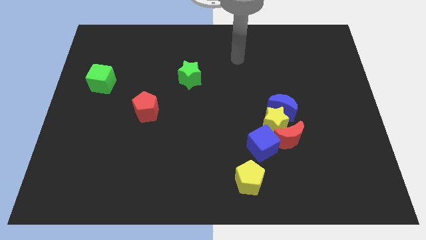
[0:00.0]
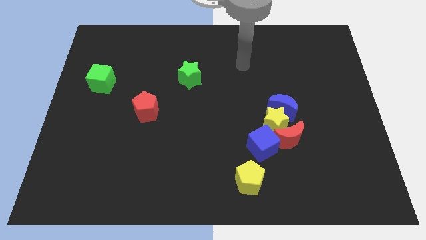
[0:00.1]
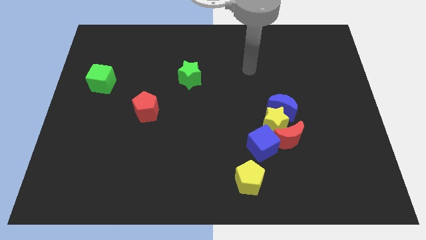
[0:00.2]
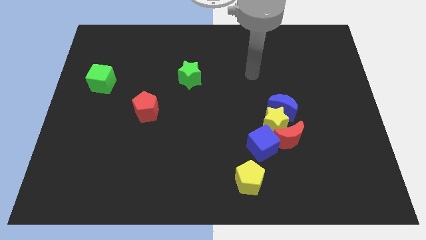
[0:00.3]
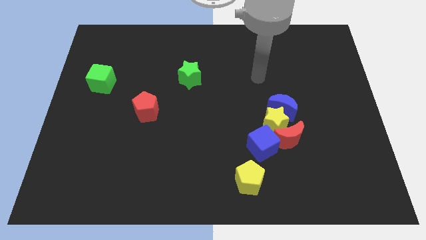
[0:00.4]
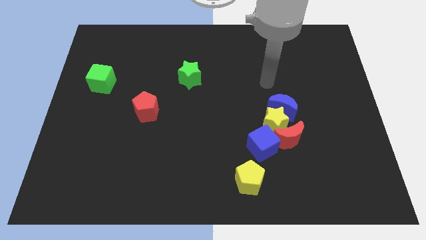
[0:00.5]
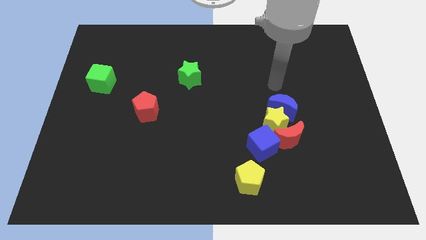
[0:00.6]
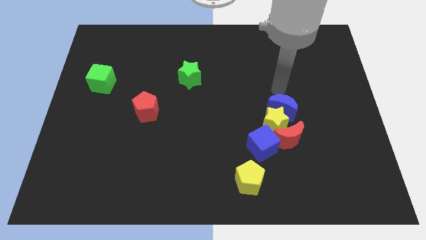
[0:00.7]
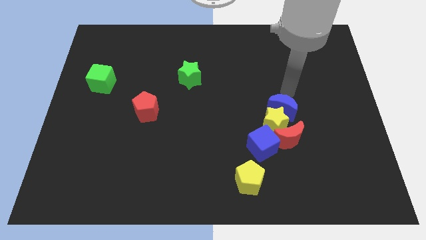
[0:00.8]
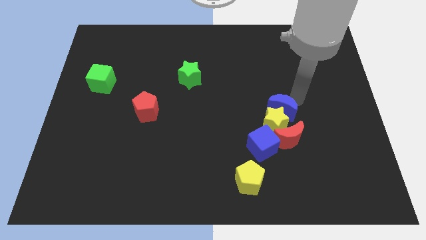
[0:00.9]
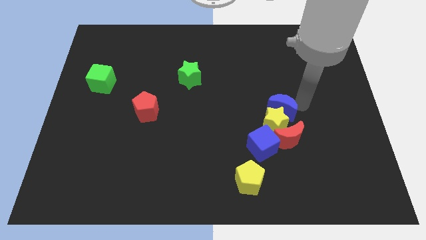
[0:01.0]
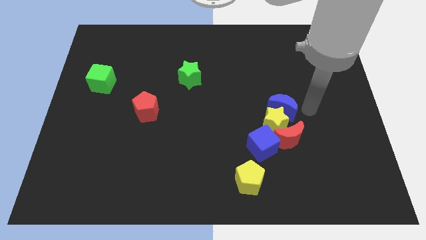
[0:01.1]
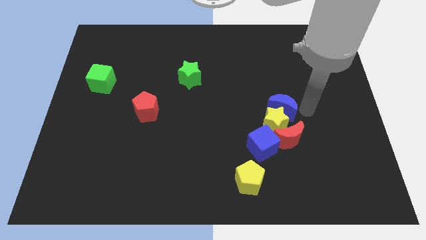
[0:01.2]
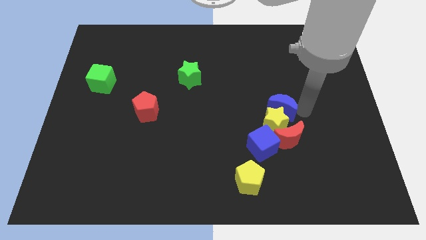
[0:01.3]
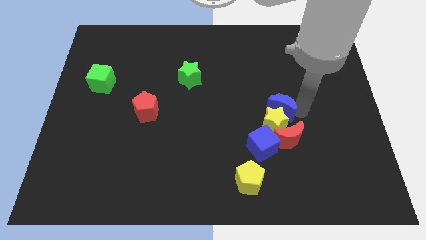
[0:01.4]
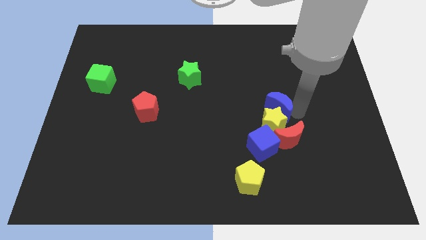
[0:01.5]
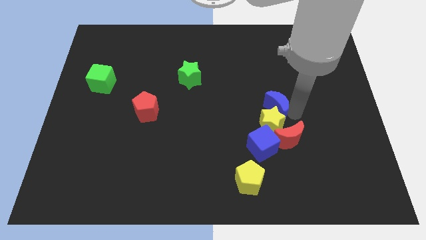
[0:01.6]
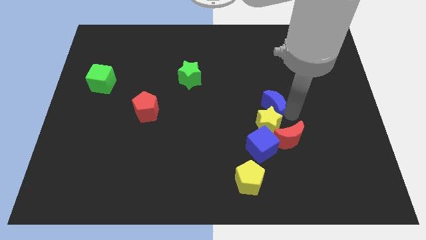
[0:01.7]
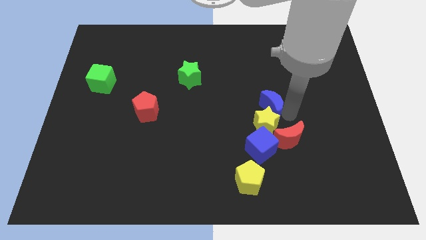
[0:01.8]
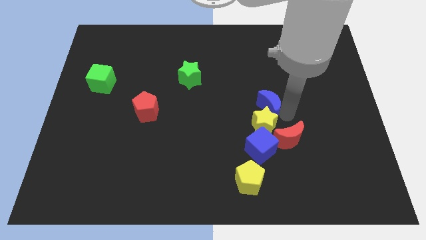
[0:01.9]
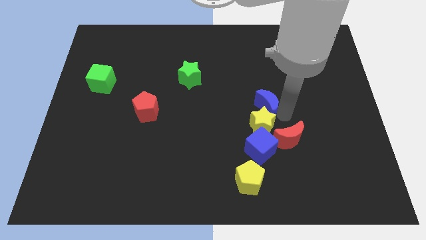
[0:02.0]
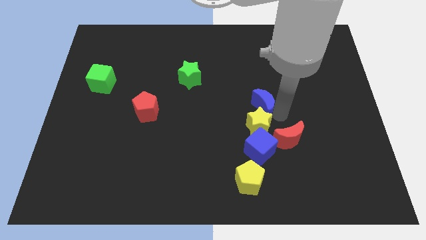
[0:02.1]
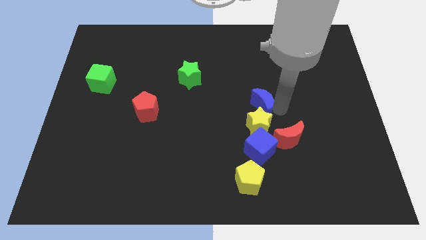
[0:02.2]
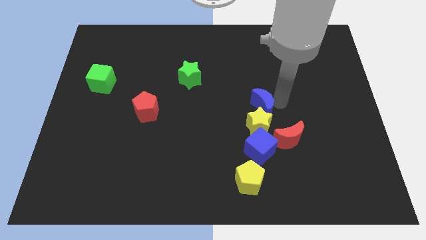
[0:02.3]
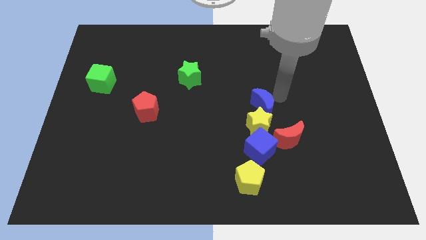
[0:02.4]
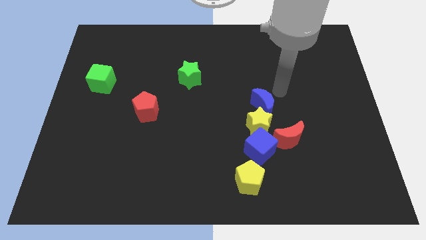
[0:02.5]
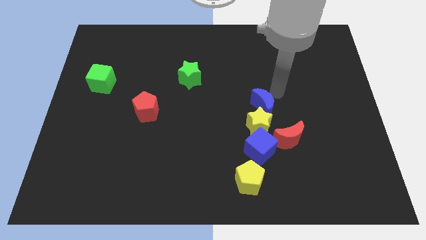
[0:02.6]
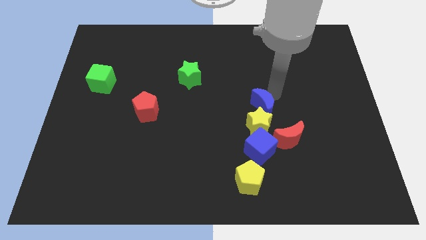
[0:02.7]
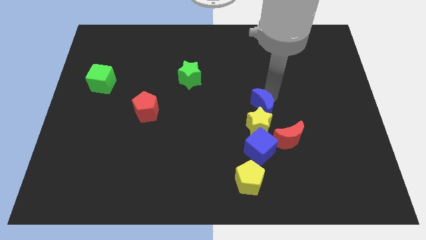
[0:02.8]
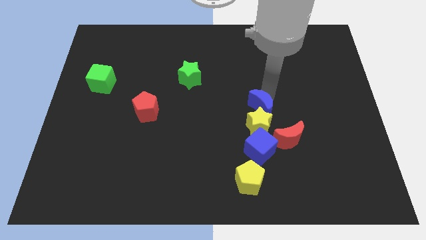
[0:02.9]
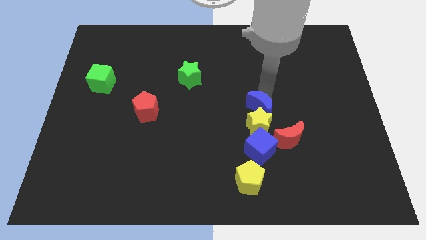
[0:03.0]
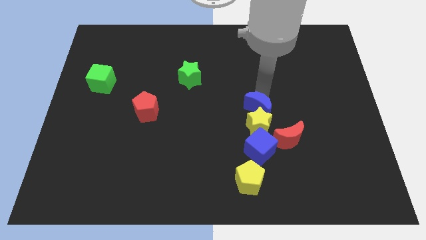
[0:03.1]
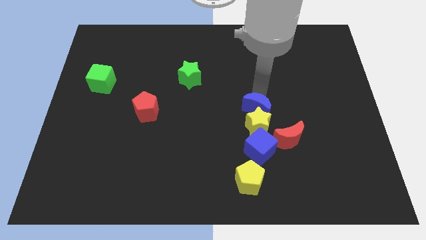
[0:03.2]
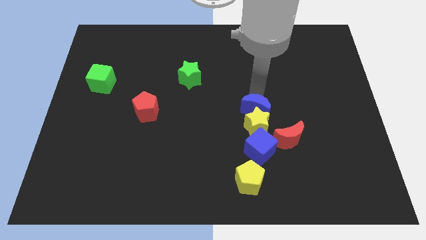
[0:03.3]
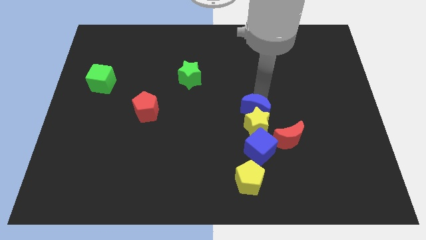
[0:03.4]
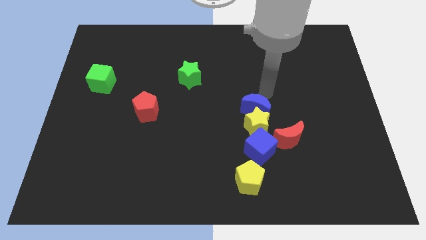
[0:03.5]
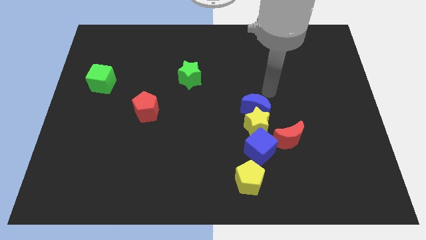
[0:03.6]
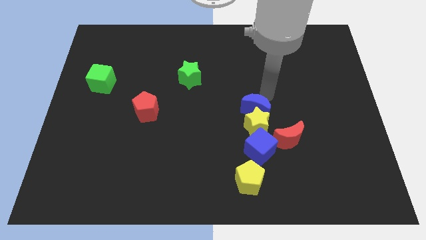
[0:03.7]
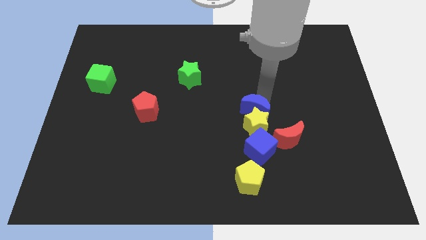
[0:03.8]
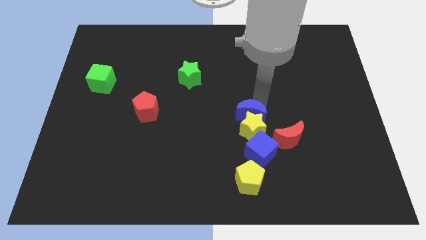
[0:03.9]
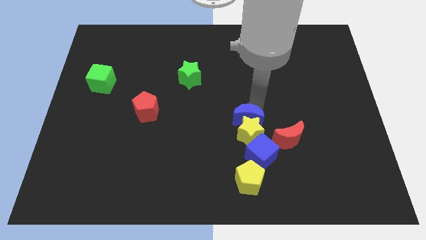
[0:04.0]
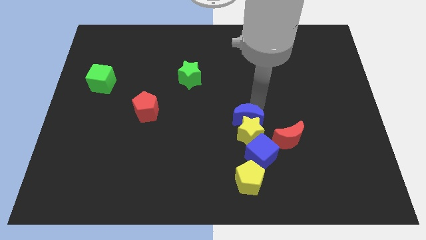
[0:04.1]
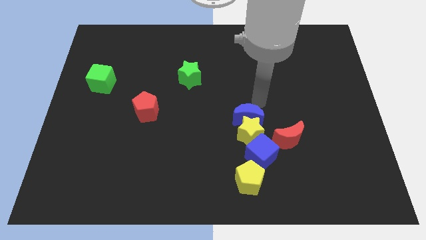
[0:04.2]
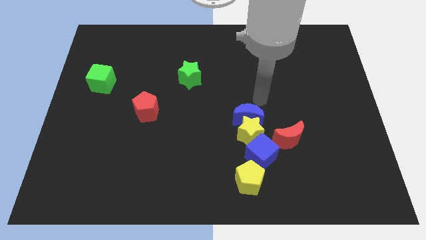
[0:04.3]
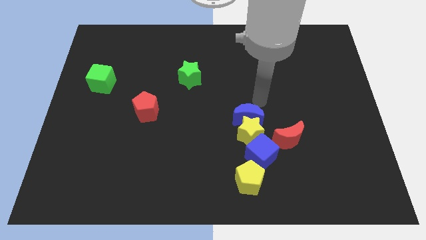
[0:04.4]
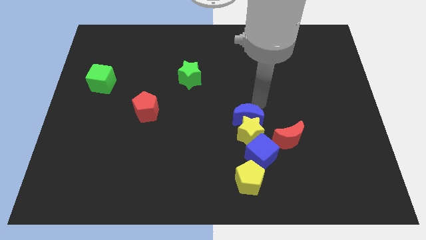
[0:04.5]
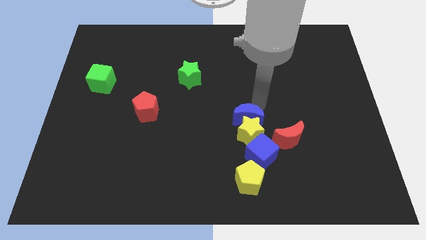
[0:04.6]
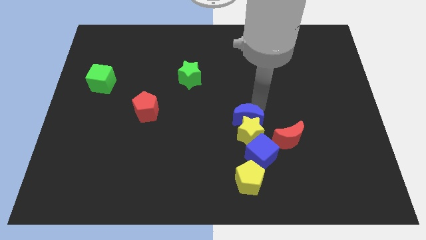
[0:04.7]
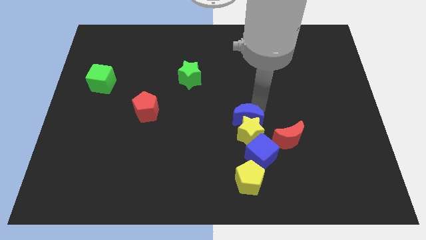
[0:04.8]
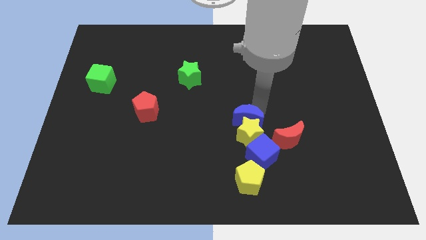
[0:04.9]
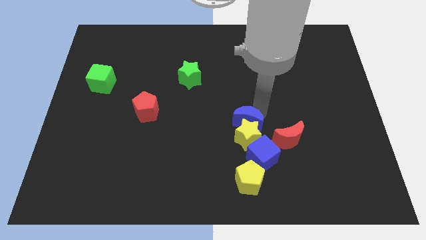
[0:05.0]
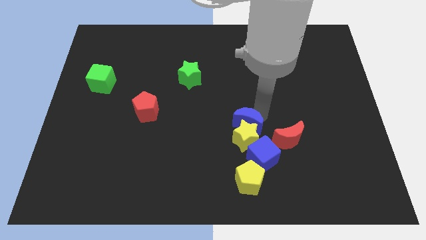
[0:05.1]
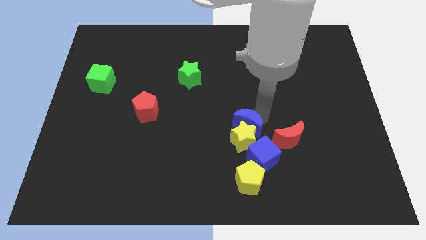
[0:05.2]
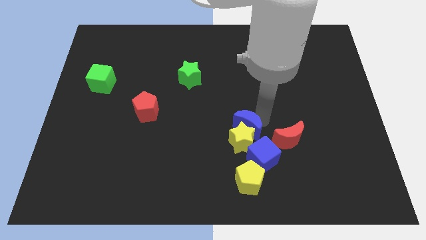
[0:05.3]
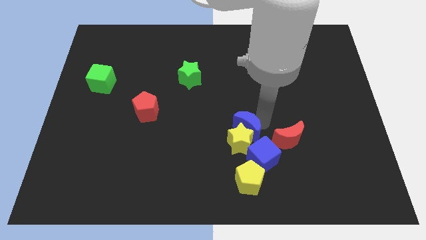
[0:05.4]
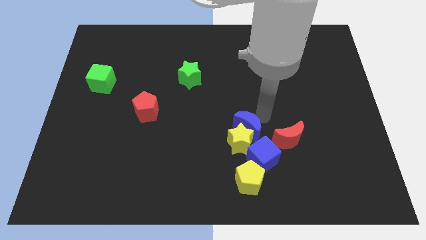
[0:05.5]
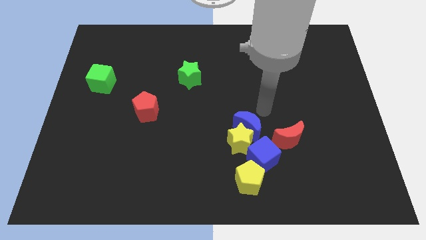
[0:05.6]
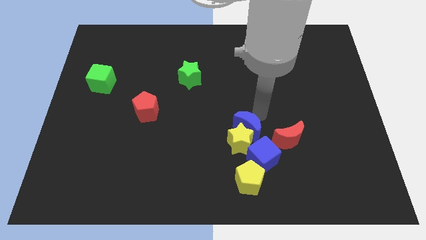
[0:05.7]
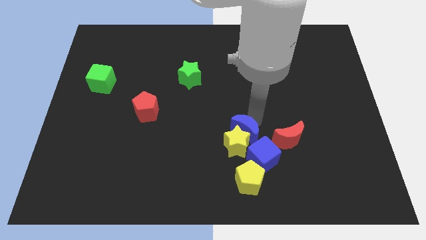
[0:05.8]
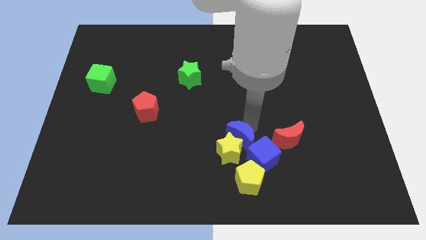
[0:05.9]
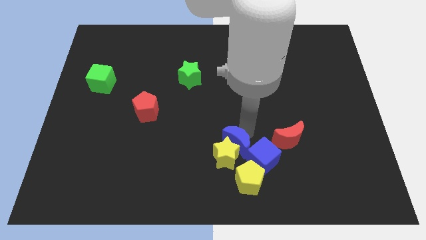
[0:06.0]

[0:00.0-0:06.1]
put the blue moon to the top left of the yellow pentagon

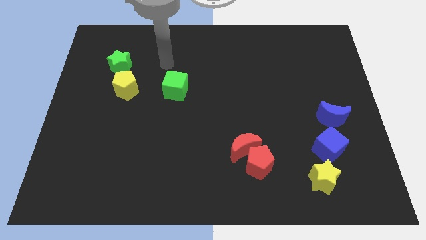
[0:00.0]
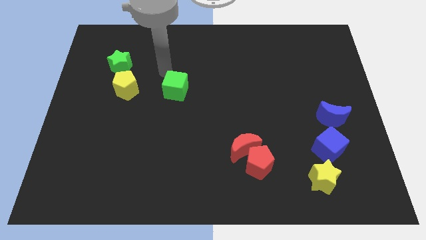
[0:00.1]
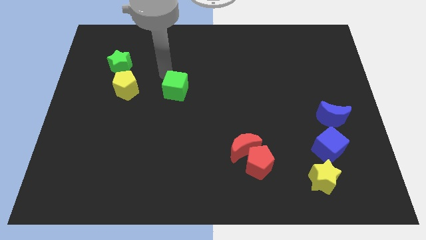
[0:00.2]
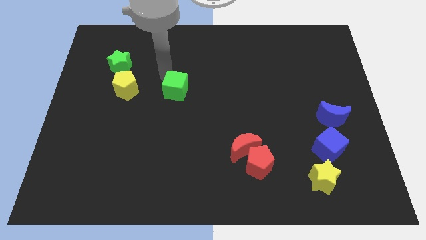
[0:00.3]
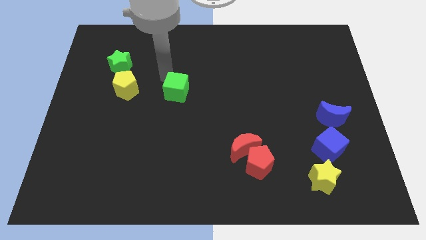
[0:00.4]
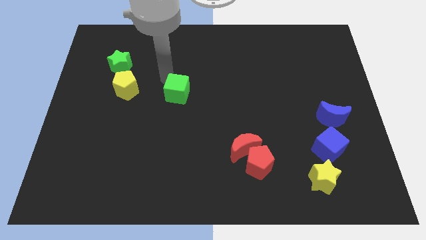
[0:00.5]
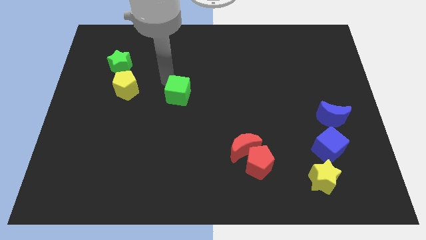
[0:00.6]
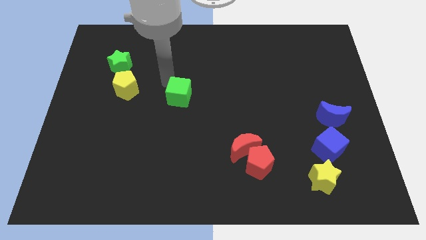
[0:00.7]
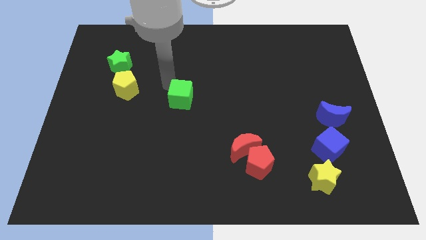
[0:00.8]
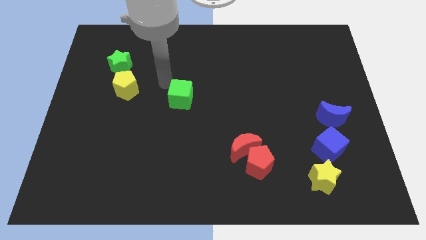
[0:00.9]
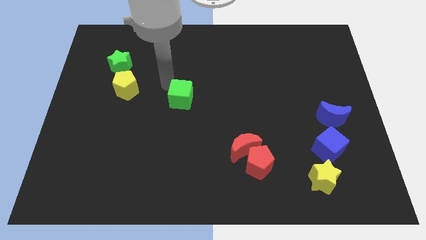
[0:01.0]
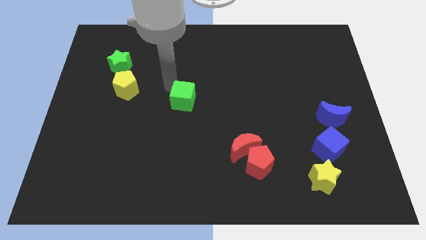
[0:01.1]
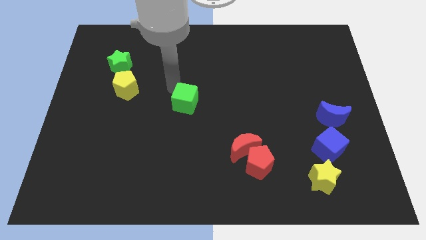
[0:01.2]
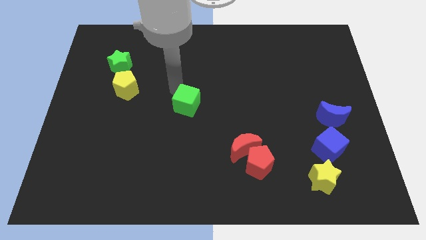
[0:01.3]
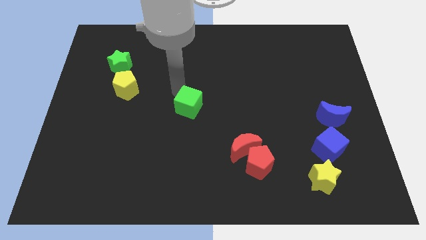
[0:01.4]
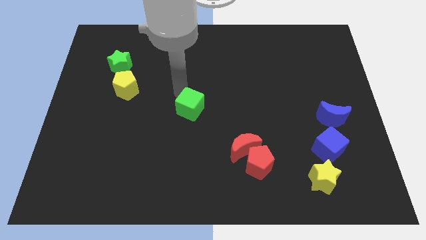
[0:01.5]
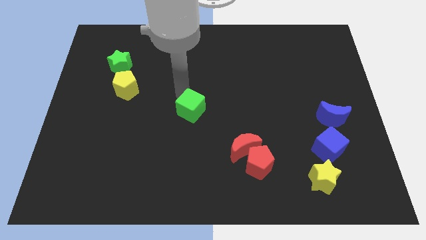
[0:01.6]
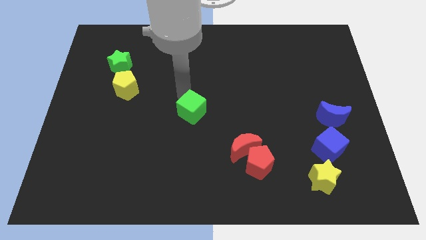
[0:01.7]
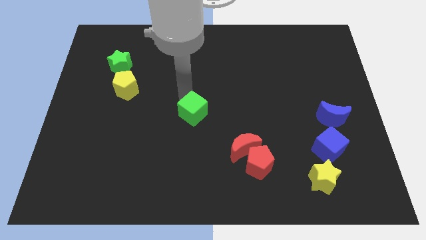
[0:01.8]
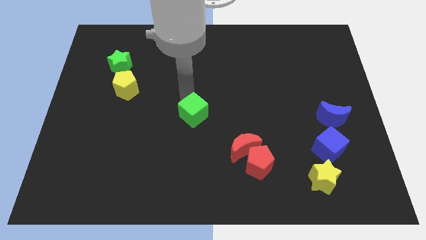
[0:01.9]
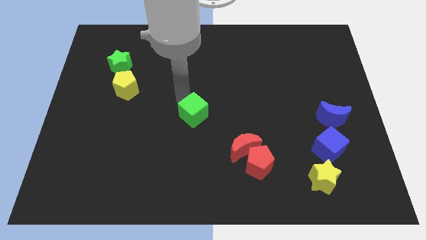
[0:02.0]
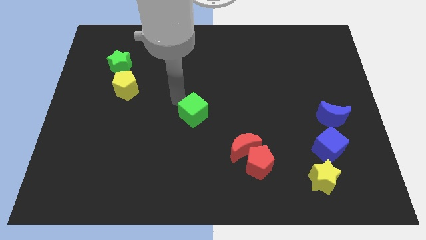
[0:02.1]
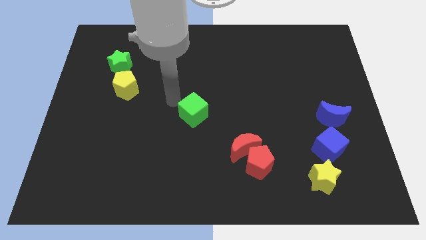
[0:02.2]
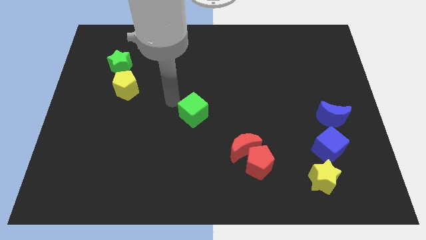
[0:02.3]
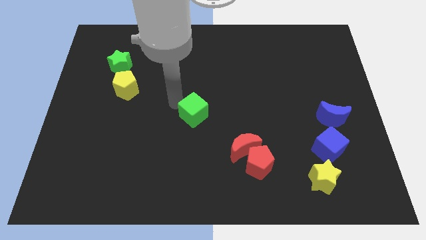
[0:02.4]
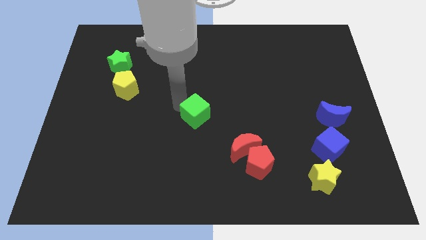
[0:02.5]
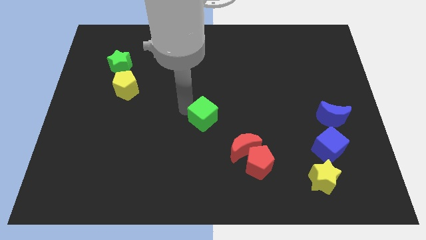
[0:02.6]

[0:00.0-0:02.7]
slide the green cube to the top left side of the red moon
